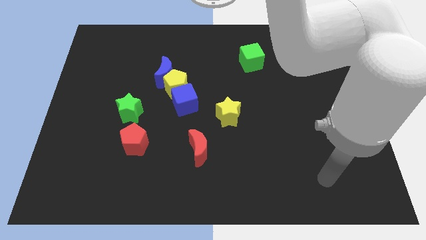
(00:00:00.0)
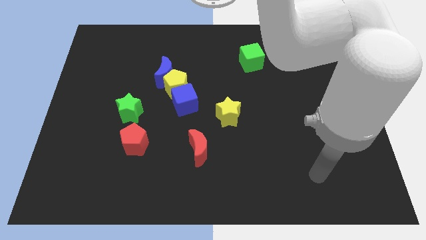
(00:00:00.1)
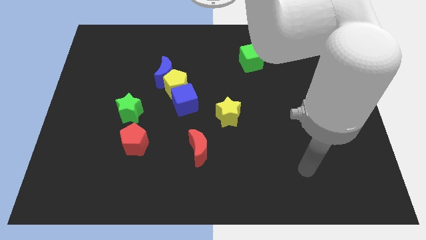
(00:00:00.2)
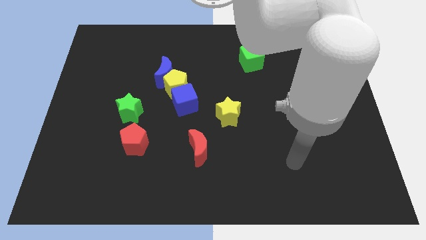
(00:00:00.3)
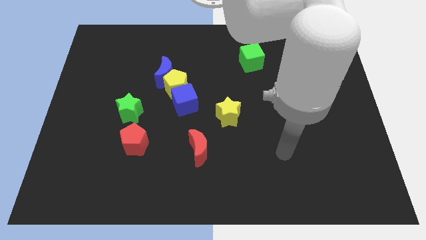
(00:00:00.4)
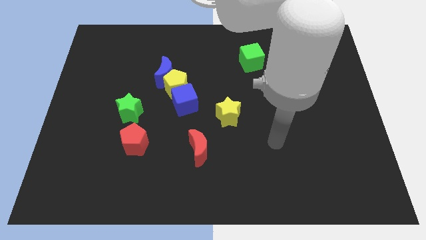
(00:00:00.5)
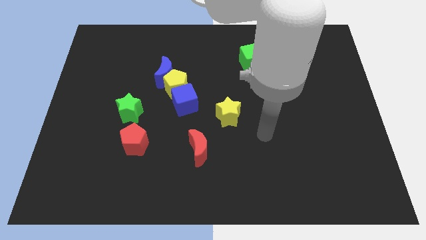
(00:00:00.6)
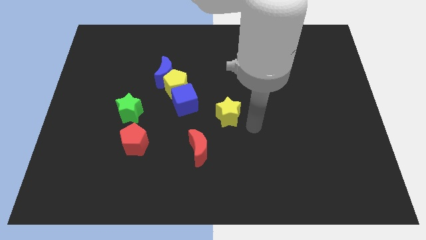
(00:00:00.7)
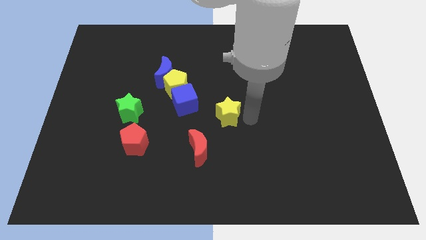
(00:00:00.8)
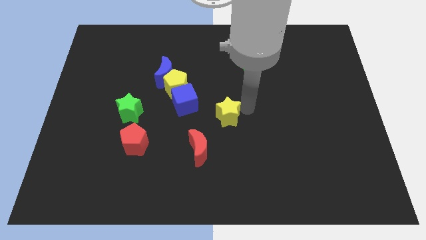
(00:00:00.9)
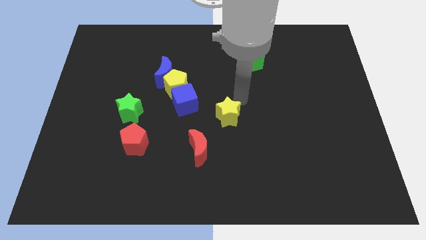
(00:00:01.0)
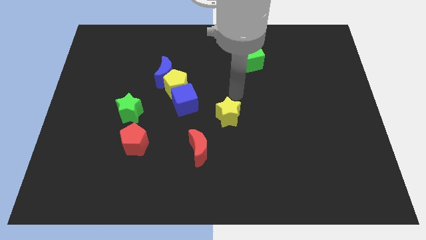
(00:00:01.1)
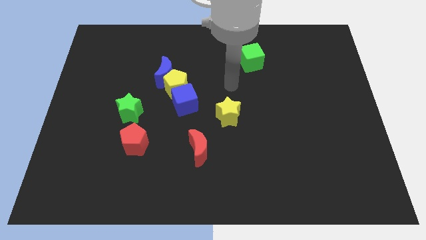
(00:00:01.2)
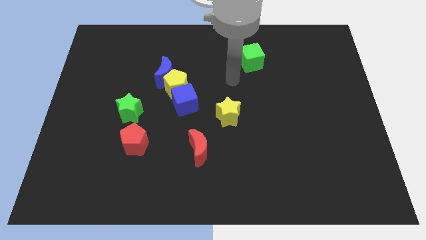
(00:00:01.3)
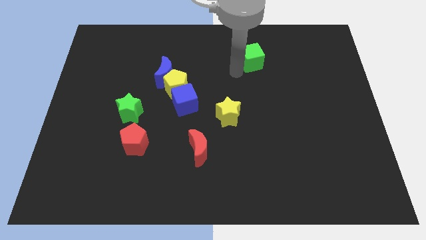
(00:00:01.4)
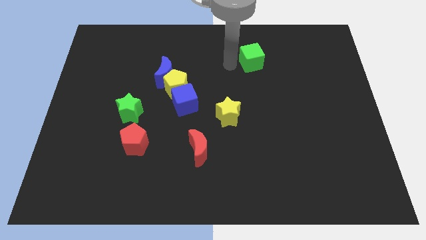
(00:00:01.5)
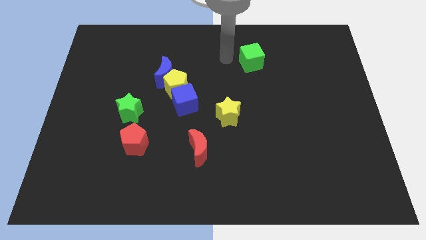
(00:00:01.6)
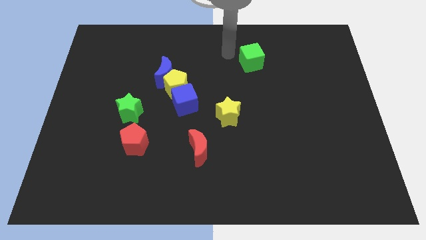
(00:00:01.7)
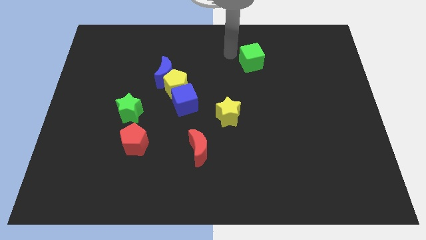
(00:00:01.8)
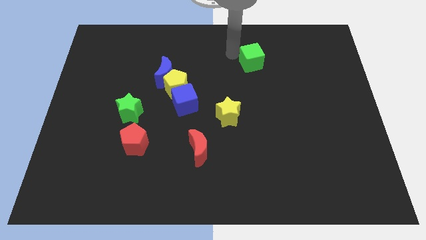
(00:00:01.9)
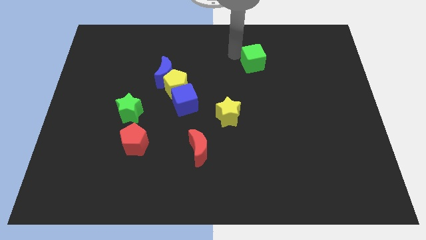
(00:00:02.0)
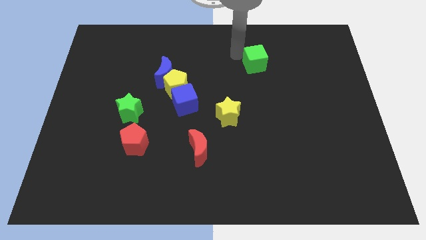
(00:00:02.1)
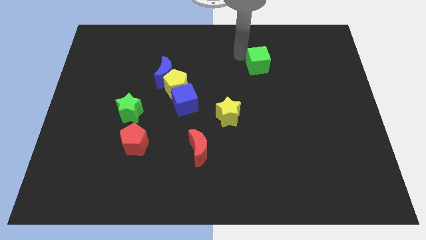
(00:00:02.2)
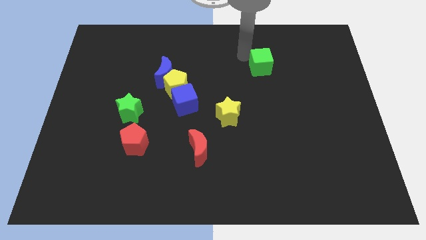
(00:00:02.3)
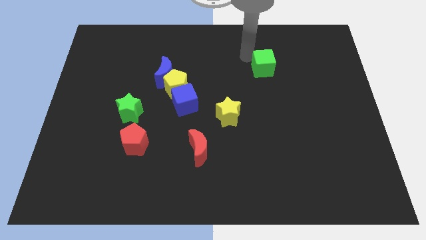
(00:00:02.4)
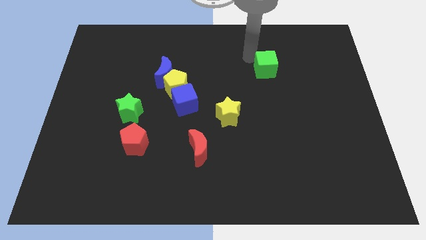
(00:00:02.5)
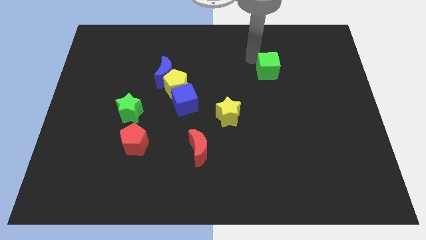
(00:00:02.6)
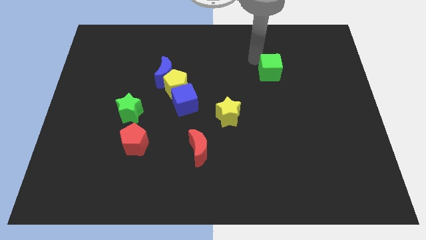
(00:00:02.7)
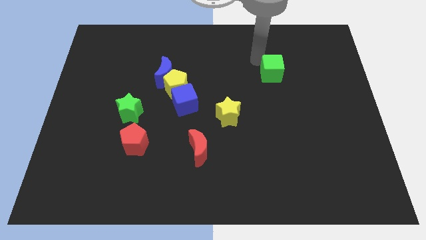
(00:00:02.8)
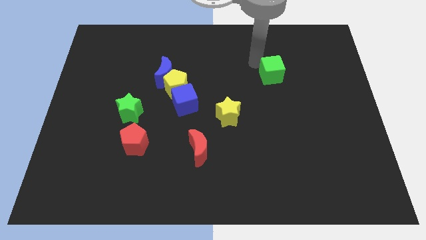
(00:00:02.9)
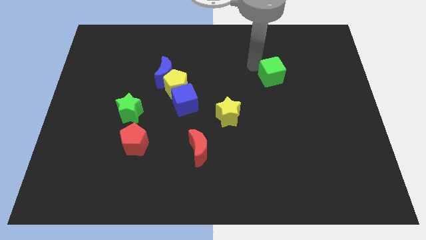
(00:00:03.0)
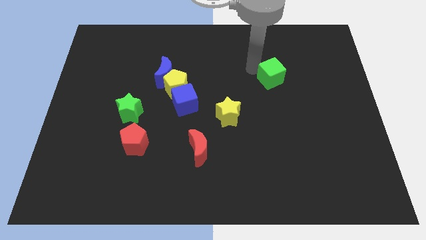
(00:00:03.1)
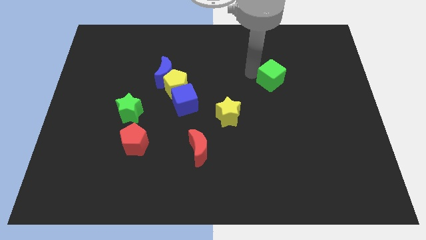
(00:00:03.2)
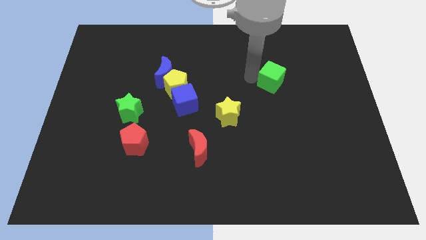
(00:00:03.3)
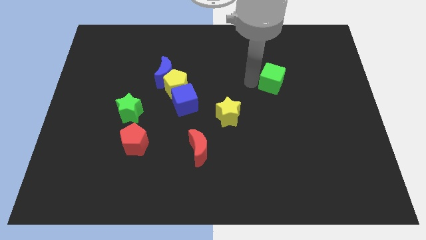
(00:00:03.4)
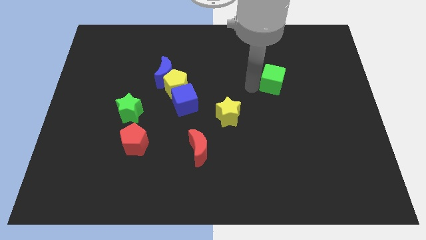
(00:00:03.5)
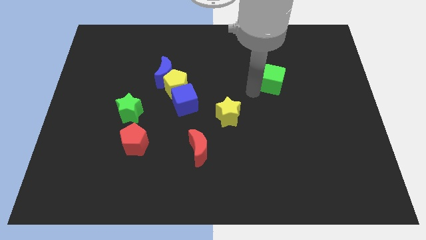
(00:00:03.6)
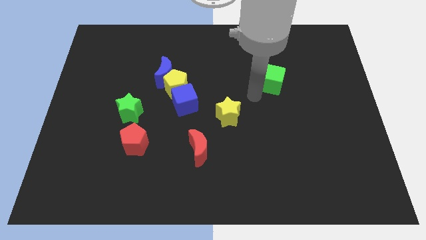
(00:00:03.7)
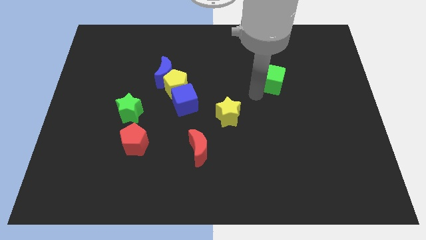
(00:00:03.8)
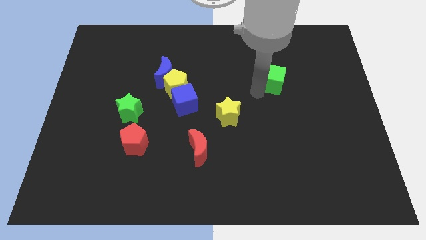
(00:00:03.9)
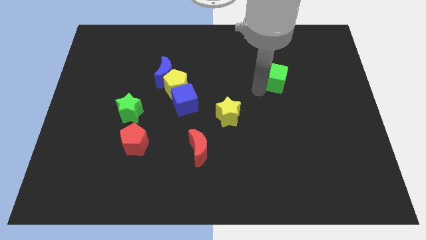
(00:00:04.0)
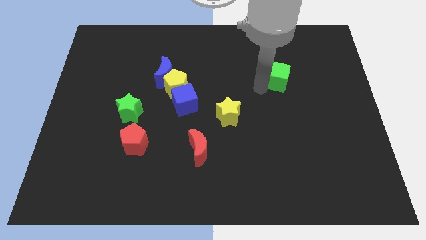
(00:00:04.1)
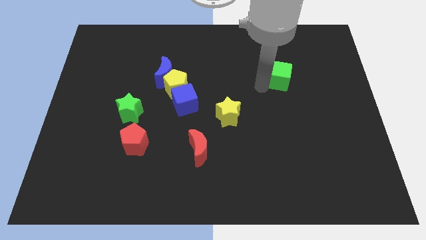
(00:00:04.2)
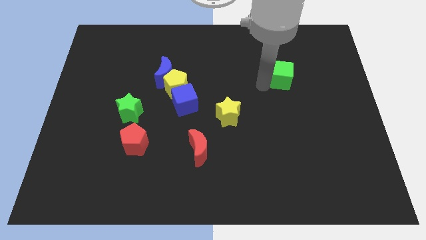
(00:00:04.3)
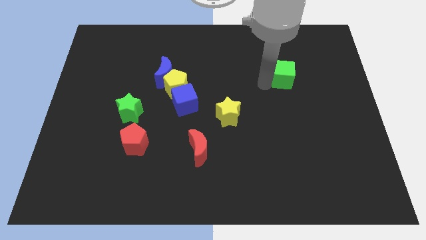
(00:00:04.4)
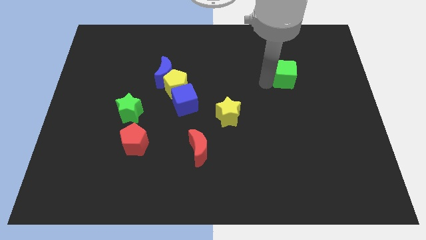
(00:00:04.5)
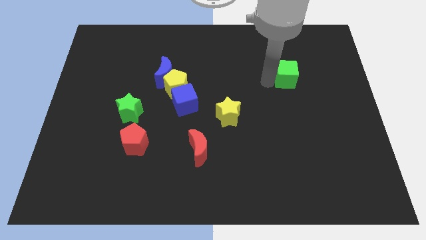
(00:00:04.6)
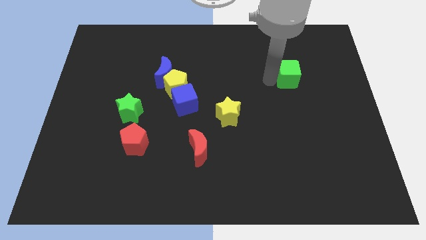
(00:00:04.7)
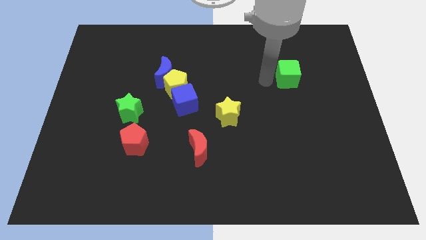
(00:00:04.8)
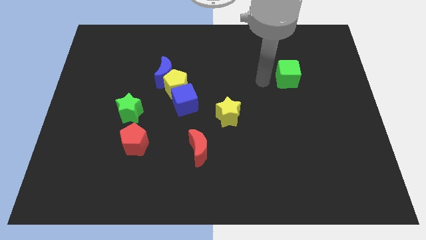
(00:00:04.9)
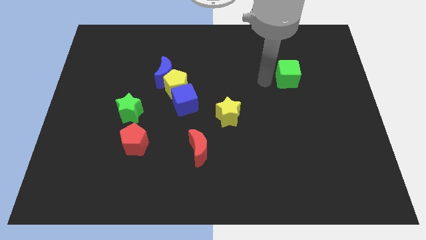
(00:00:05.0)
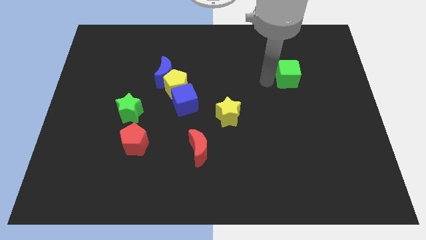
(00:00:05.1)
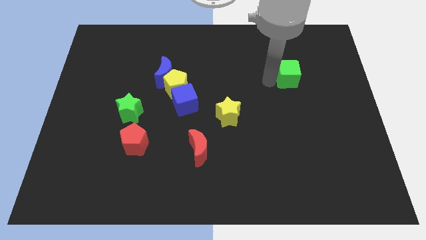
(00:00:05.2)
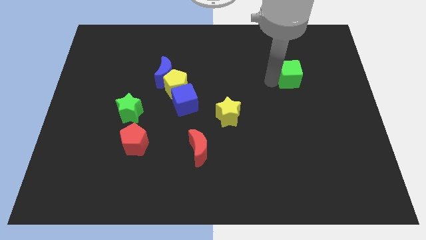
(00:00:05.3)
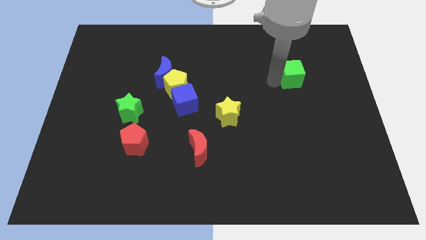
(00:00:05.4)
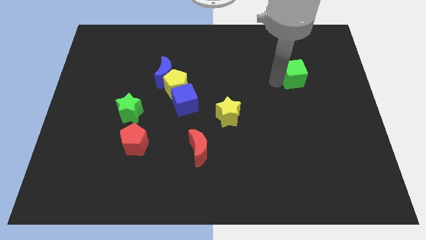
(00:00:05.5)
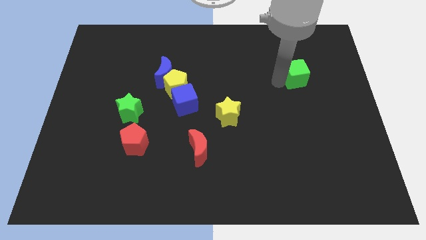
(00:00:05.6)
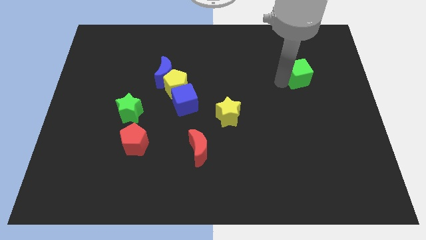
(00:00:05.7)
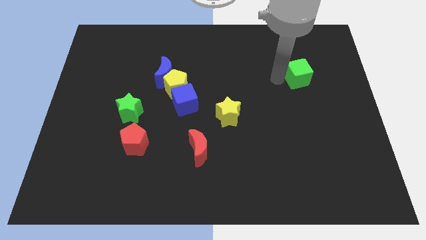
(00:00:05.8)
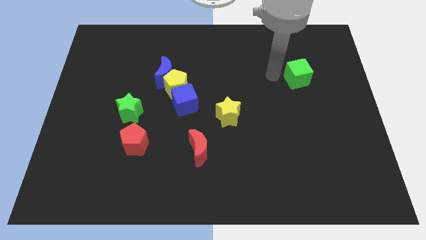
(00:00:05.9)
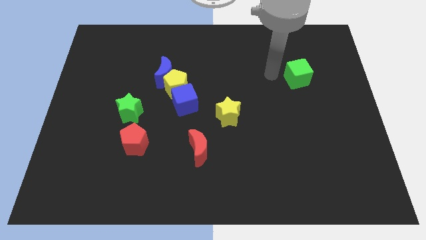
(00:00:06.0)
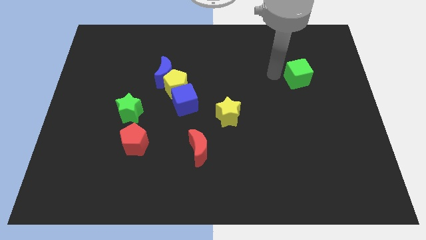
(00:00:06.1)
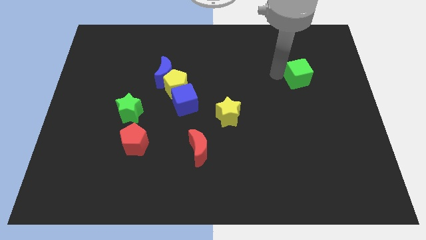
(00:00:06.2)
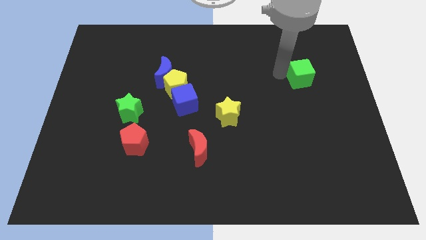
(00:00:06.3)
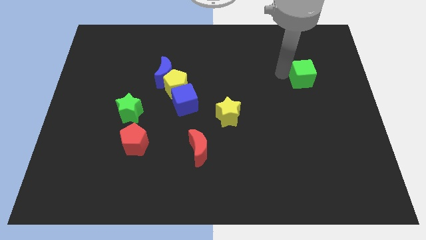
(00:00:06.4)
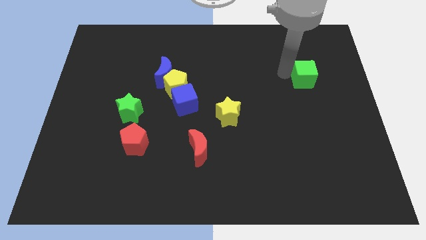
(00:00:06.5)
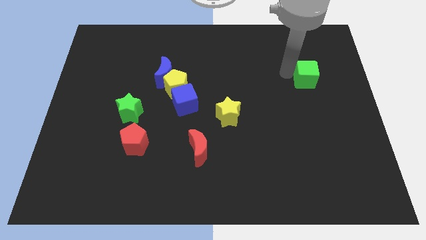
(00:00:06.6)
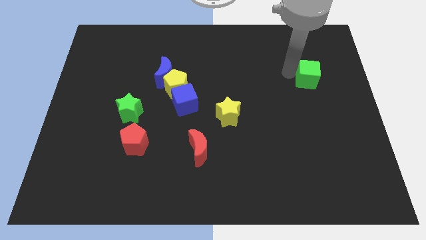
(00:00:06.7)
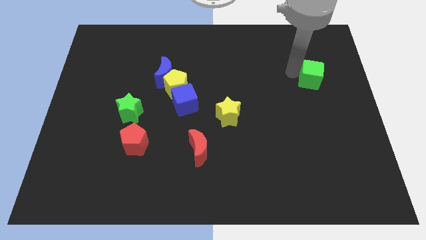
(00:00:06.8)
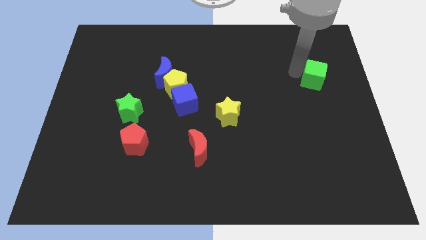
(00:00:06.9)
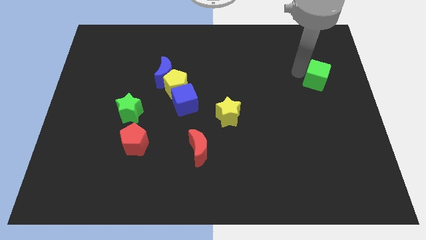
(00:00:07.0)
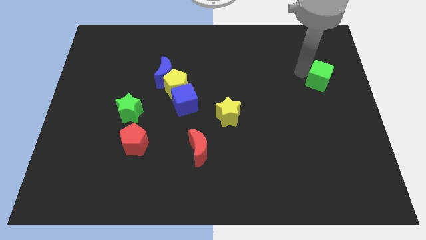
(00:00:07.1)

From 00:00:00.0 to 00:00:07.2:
move the green cube to the center right
